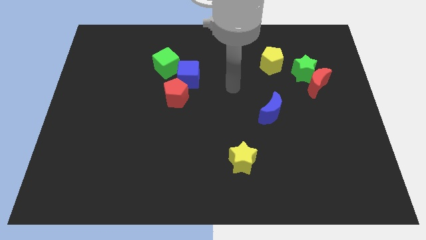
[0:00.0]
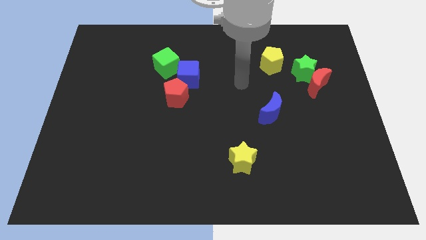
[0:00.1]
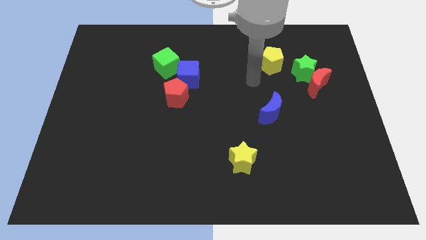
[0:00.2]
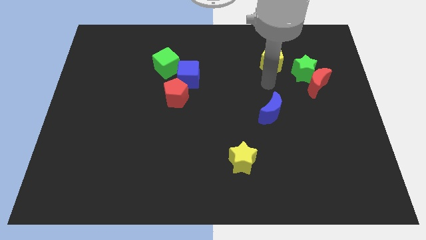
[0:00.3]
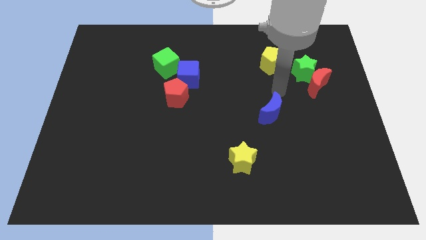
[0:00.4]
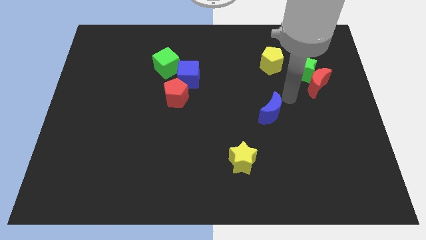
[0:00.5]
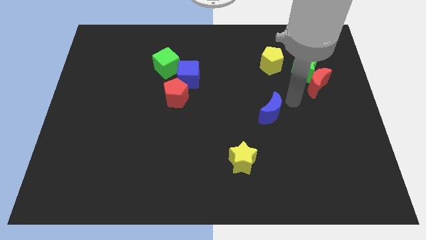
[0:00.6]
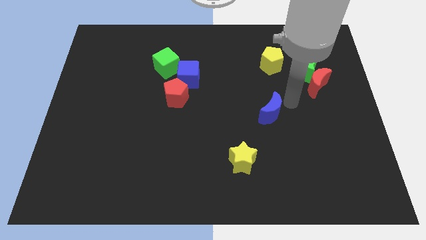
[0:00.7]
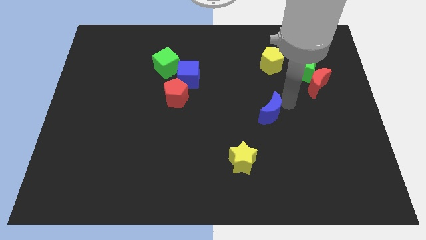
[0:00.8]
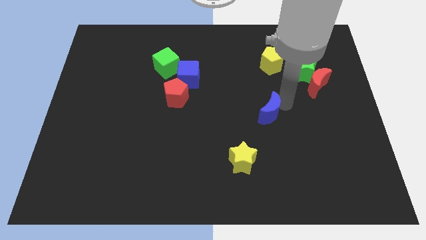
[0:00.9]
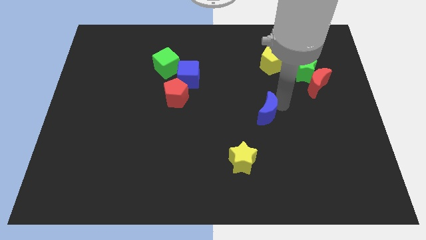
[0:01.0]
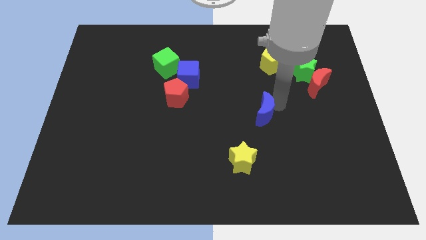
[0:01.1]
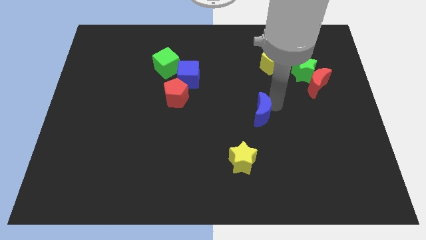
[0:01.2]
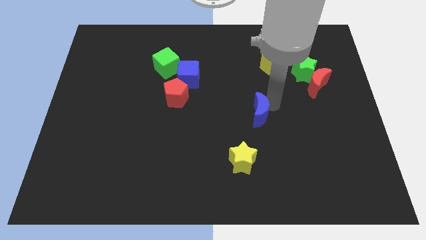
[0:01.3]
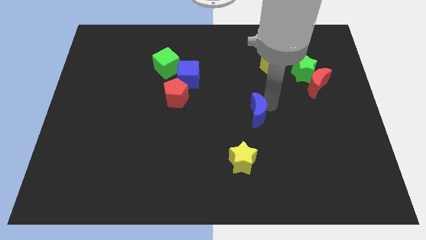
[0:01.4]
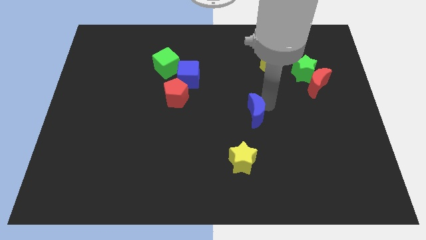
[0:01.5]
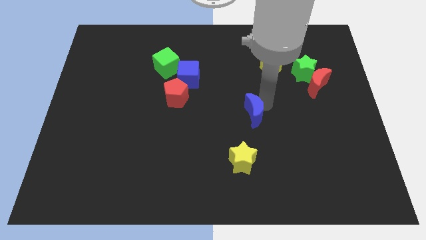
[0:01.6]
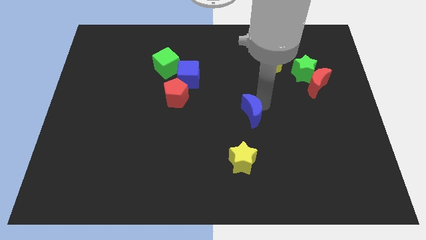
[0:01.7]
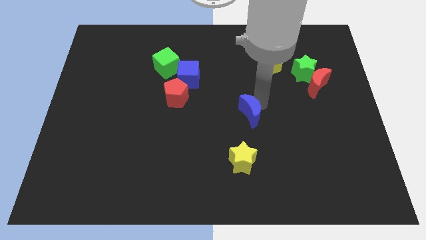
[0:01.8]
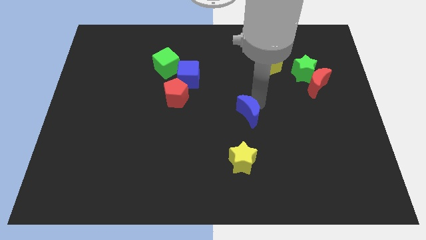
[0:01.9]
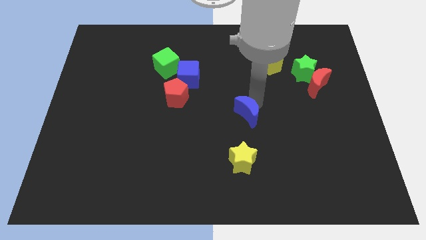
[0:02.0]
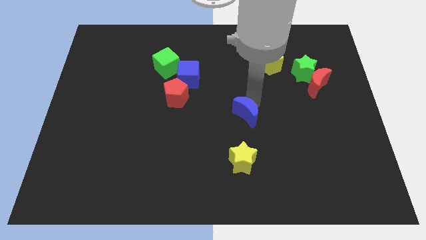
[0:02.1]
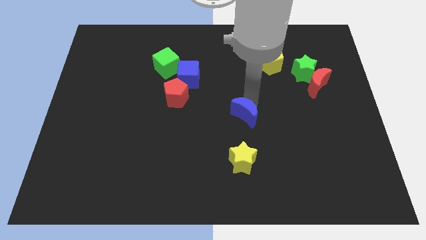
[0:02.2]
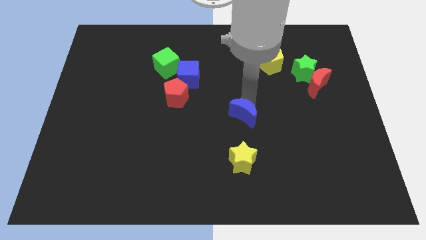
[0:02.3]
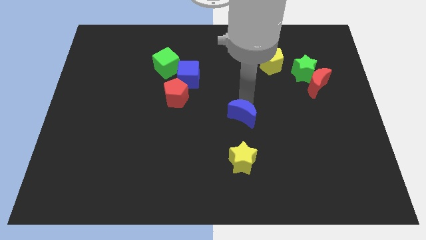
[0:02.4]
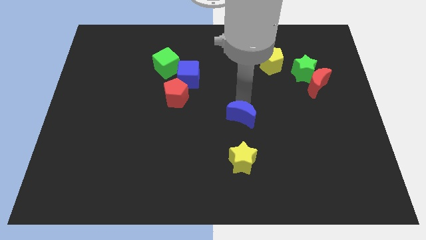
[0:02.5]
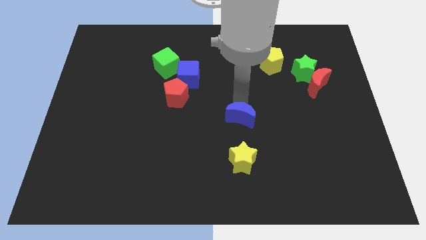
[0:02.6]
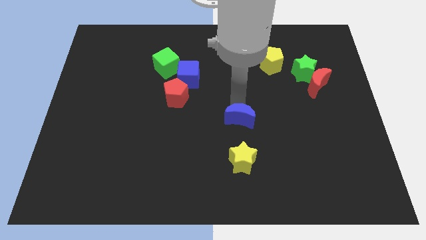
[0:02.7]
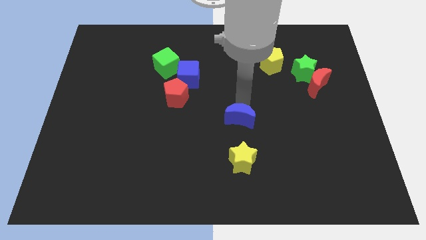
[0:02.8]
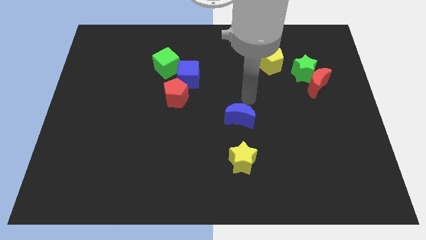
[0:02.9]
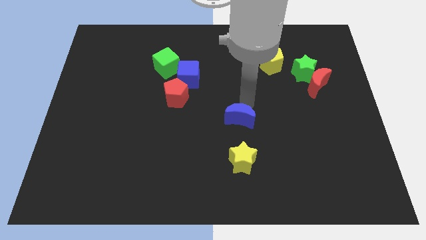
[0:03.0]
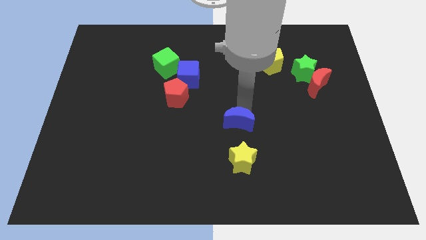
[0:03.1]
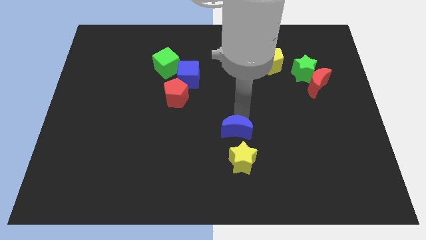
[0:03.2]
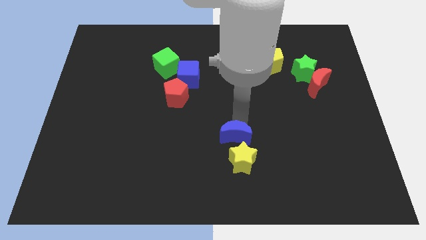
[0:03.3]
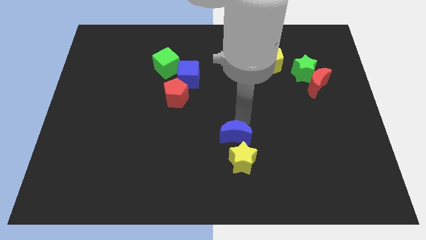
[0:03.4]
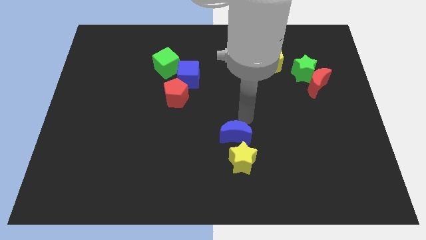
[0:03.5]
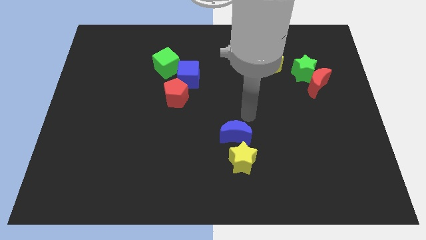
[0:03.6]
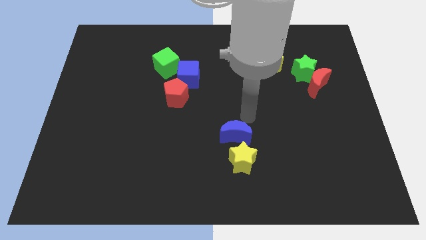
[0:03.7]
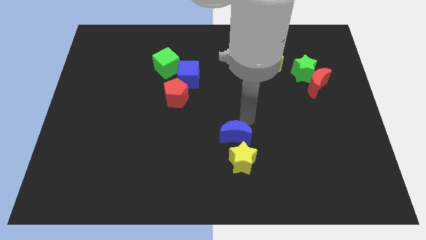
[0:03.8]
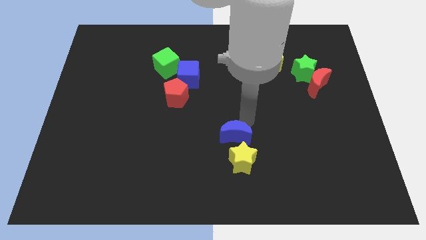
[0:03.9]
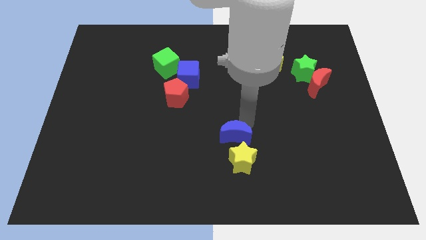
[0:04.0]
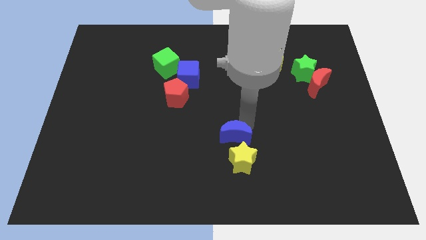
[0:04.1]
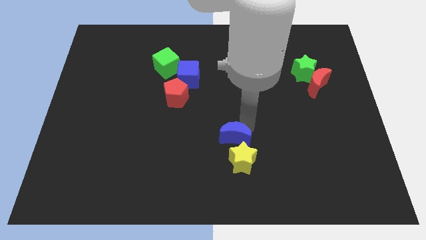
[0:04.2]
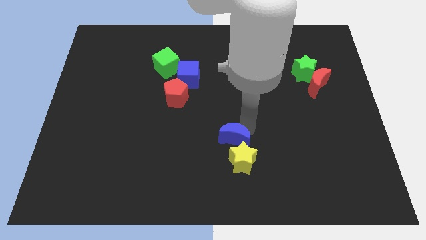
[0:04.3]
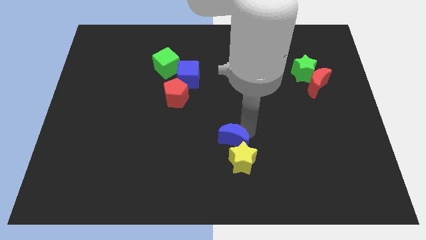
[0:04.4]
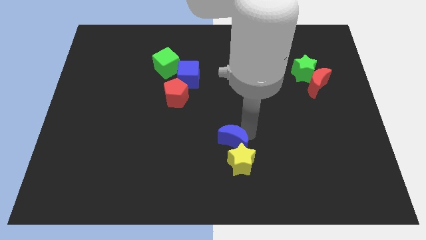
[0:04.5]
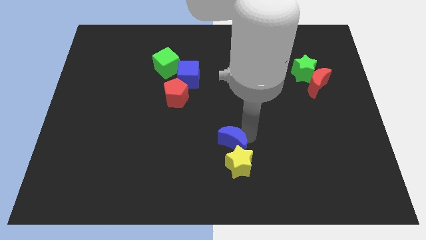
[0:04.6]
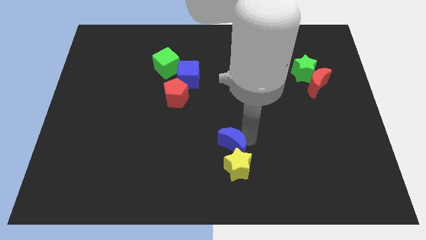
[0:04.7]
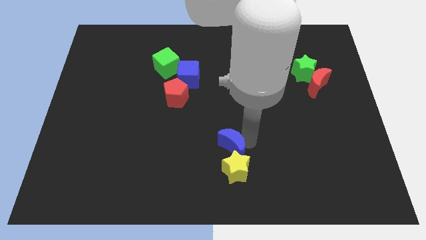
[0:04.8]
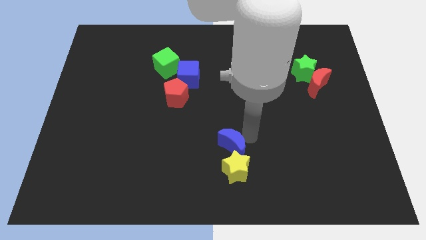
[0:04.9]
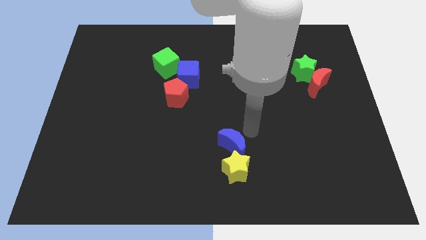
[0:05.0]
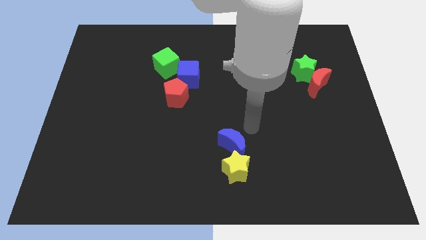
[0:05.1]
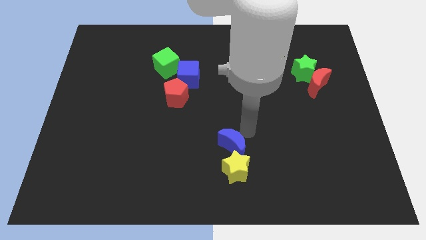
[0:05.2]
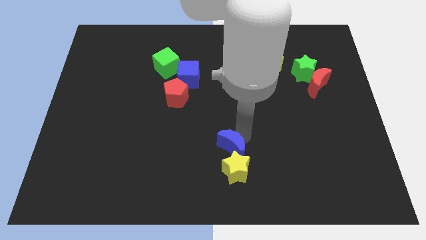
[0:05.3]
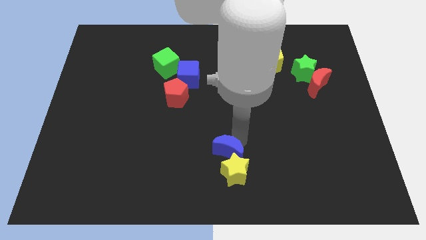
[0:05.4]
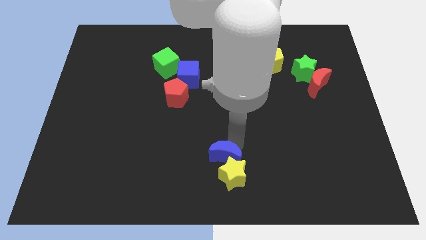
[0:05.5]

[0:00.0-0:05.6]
push the blue moon to the bottom side

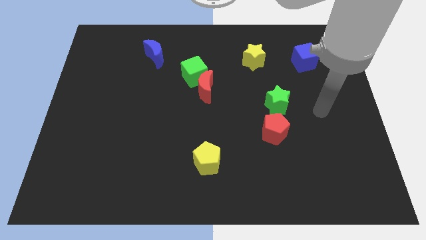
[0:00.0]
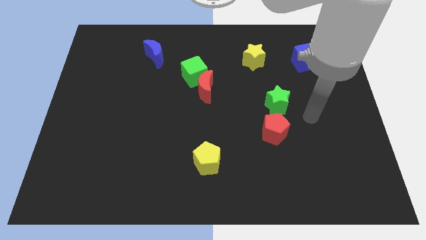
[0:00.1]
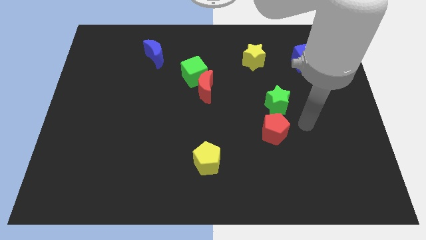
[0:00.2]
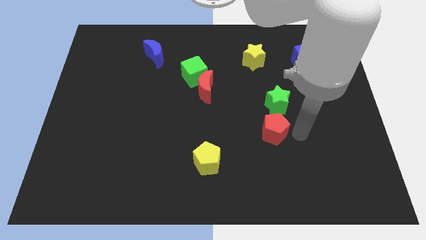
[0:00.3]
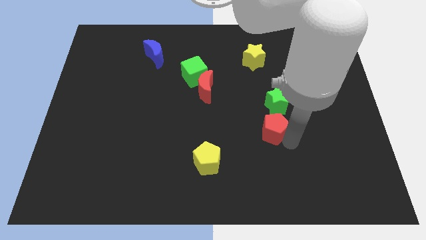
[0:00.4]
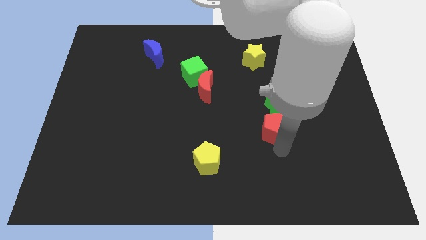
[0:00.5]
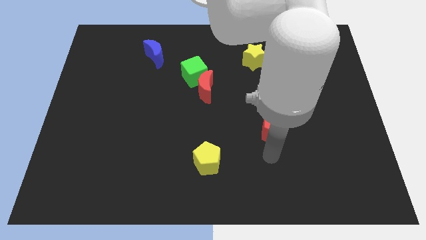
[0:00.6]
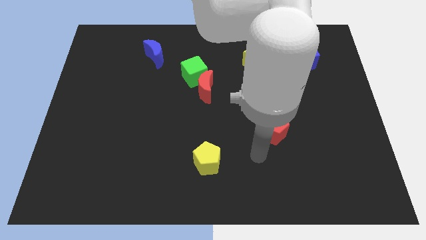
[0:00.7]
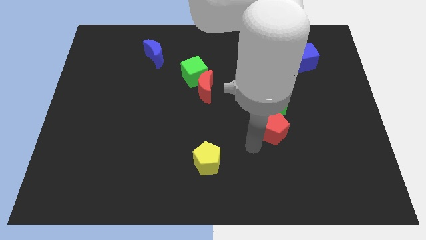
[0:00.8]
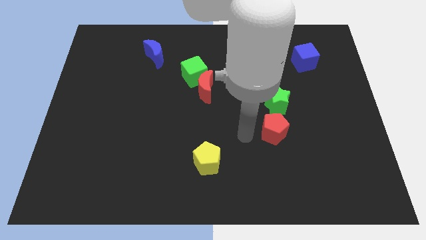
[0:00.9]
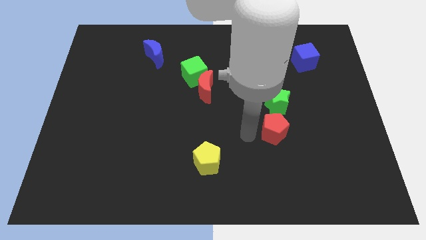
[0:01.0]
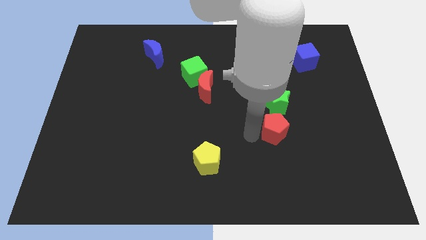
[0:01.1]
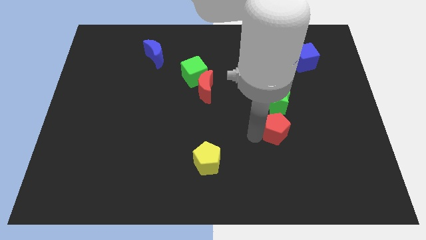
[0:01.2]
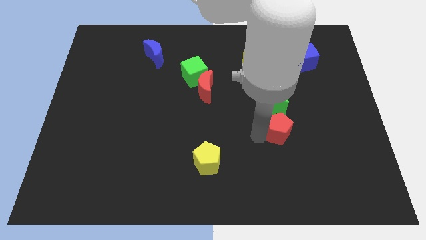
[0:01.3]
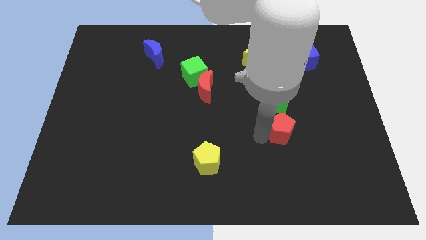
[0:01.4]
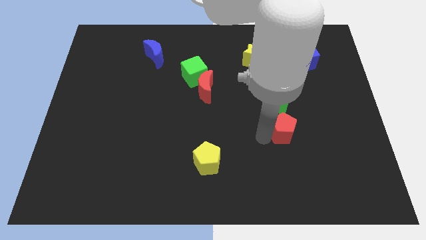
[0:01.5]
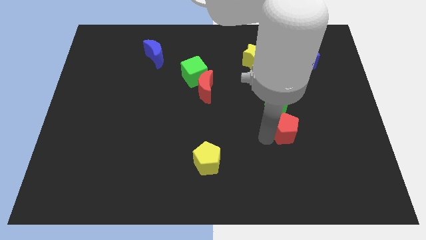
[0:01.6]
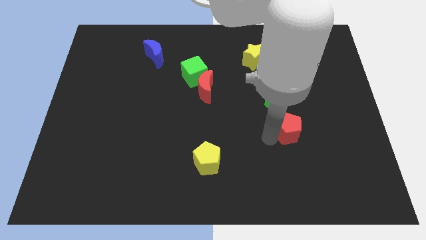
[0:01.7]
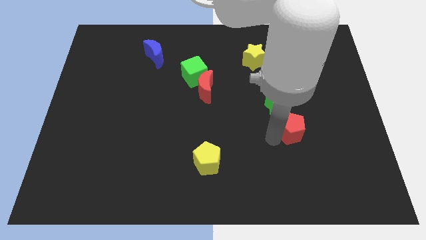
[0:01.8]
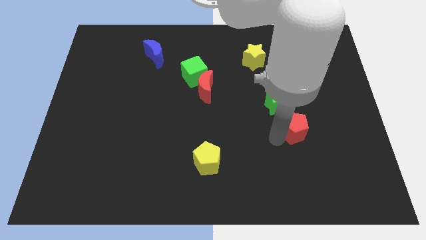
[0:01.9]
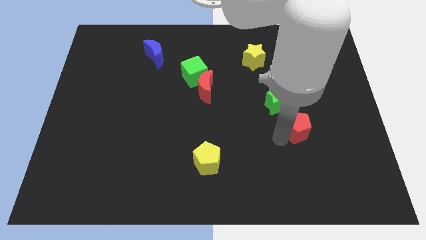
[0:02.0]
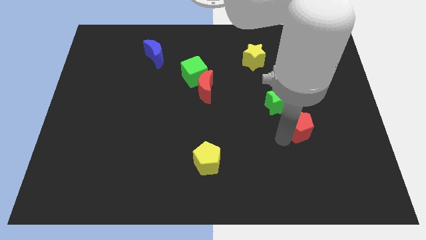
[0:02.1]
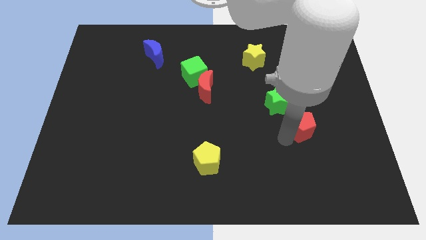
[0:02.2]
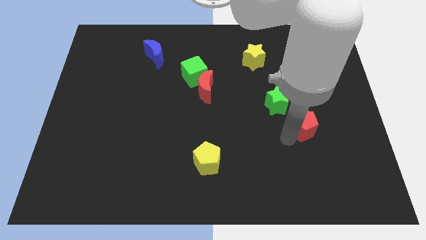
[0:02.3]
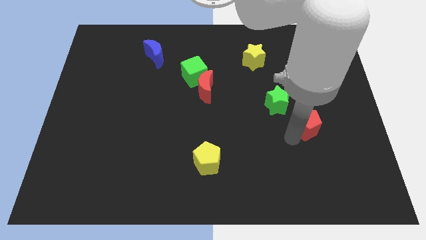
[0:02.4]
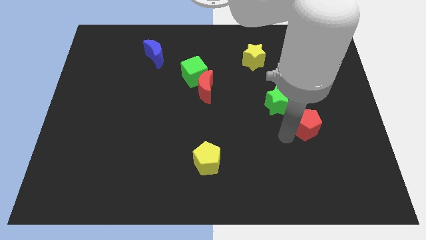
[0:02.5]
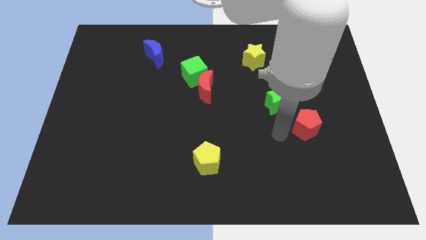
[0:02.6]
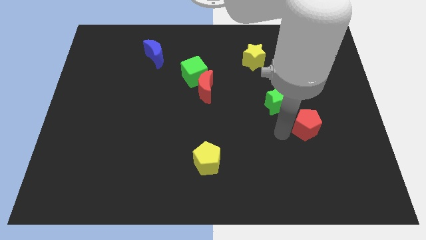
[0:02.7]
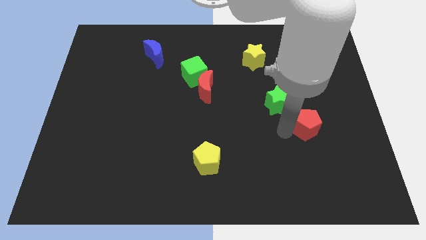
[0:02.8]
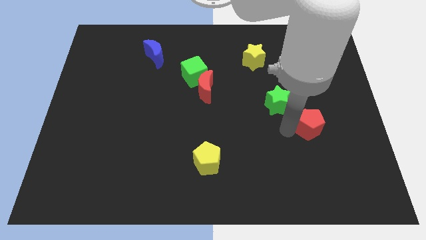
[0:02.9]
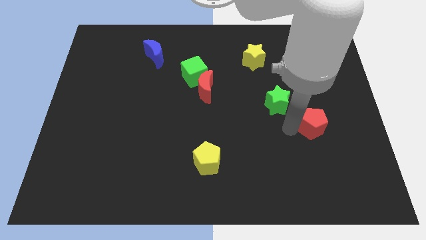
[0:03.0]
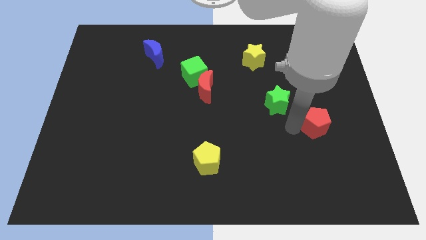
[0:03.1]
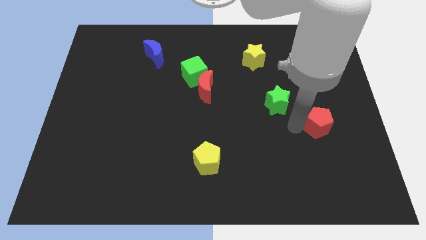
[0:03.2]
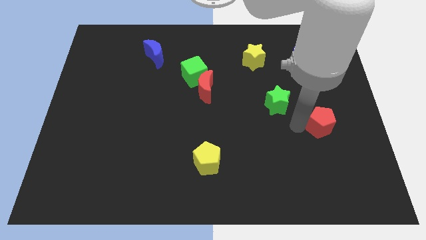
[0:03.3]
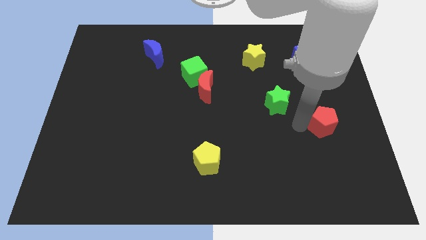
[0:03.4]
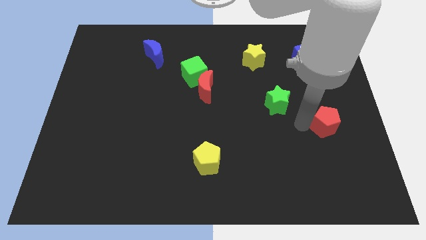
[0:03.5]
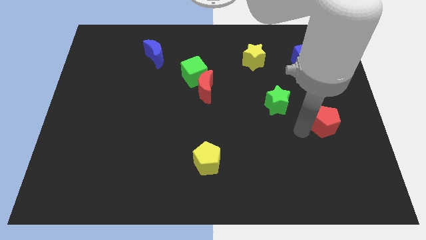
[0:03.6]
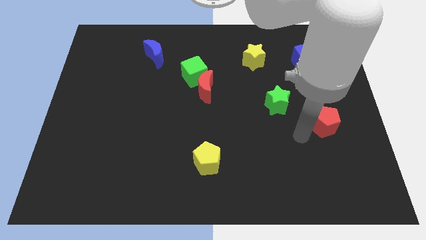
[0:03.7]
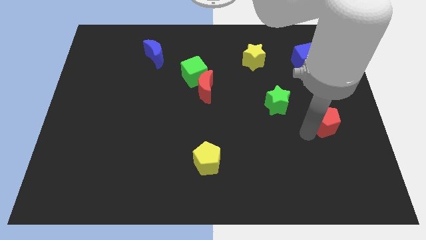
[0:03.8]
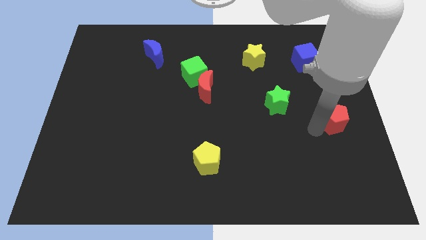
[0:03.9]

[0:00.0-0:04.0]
push the red pentagon to the right side
